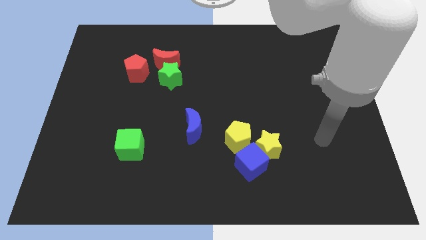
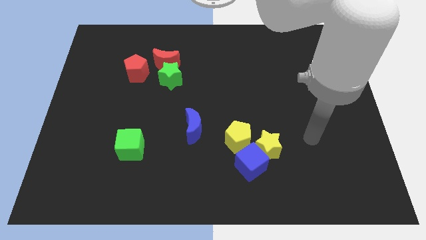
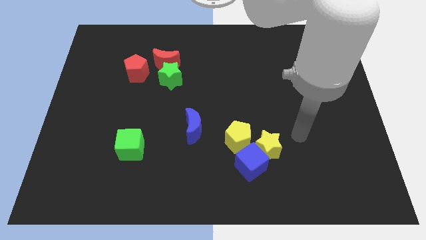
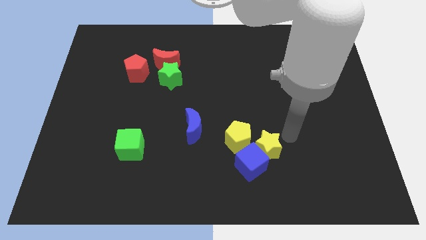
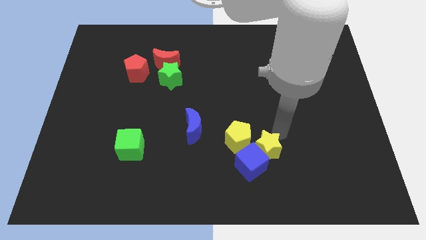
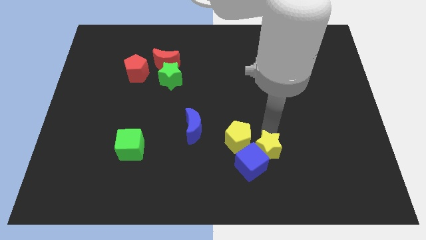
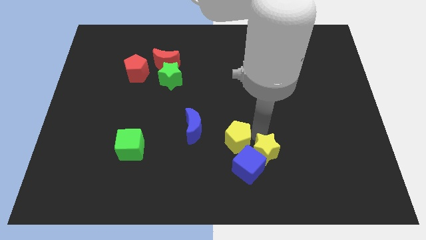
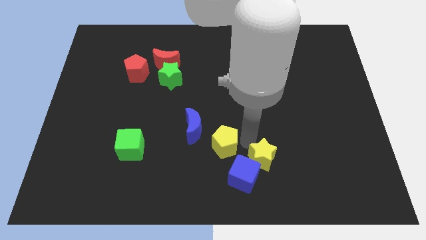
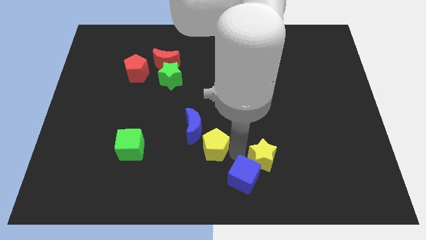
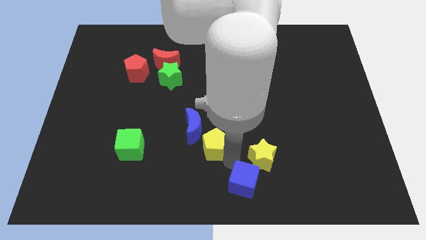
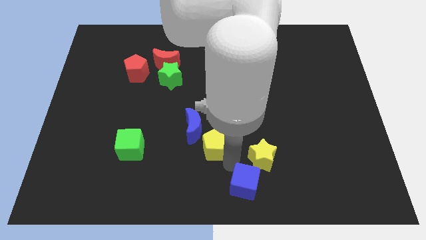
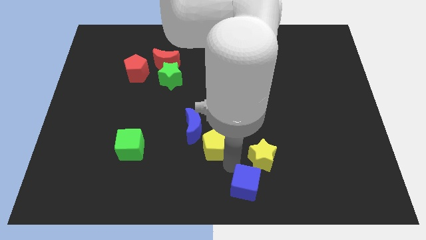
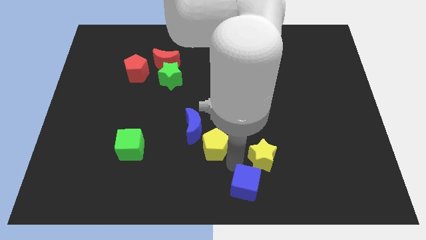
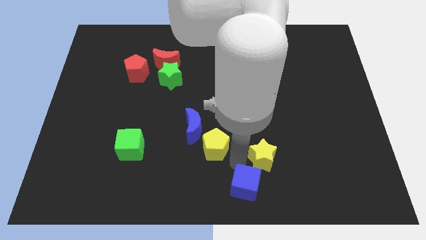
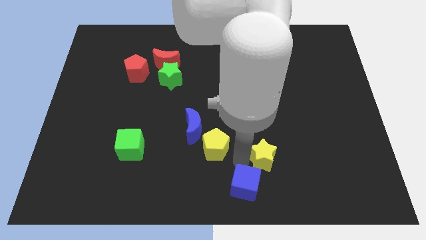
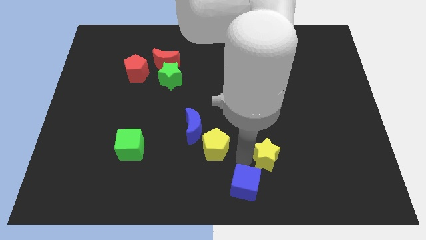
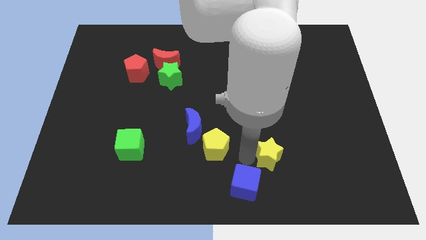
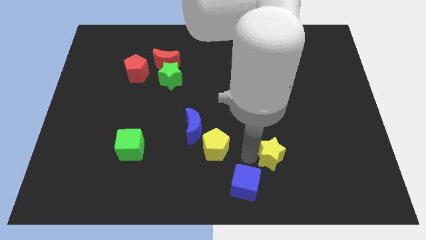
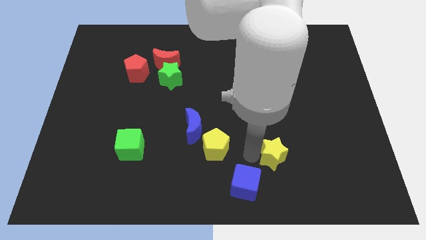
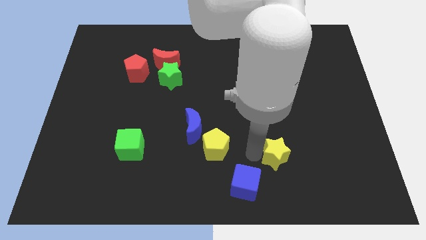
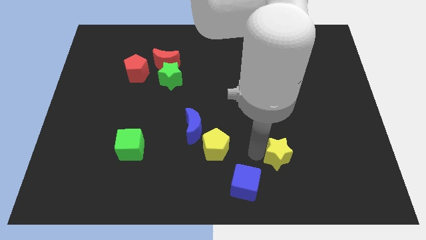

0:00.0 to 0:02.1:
separate the yellow star from the blue cube and yellow pentagon

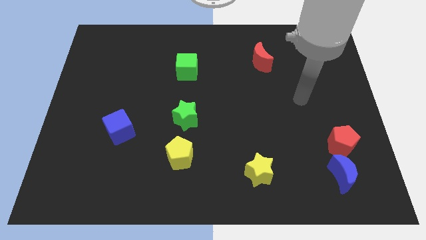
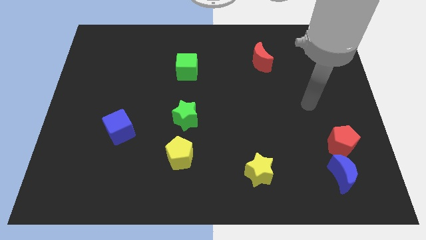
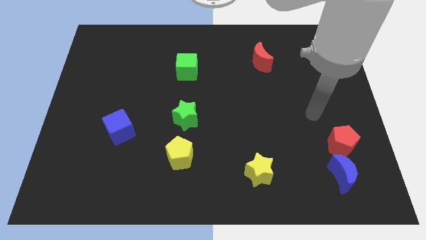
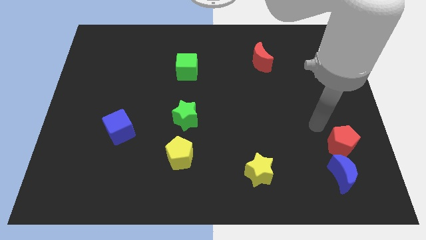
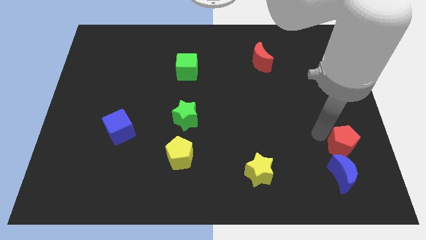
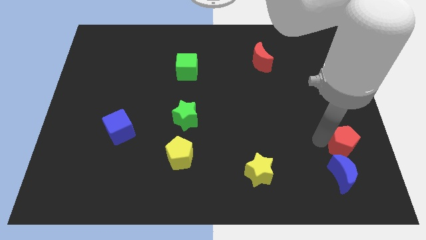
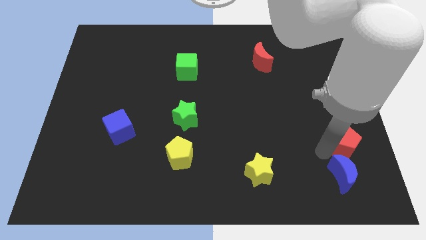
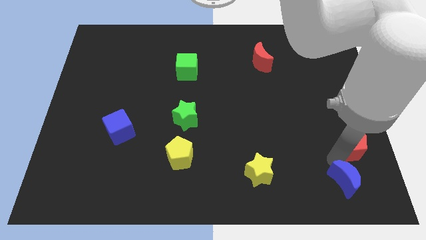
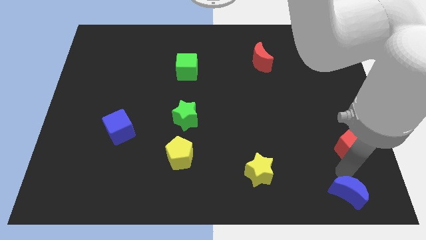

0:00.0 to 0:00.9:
separate the red pentagon from the blue moon

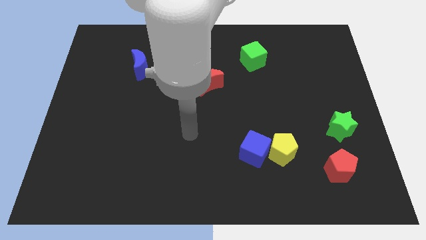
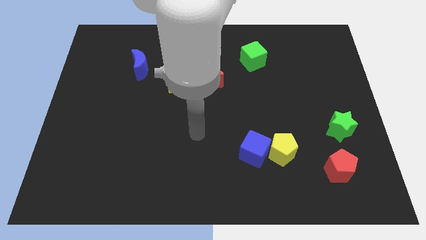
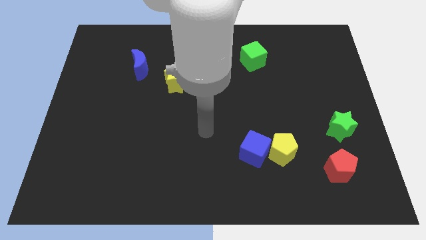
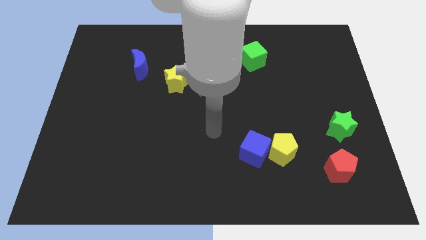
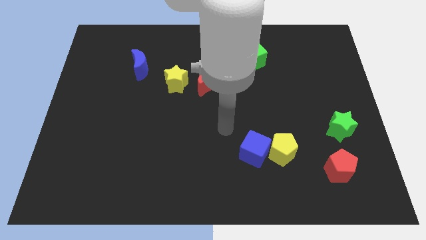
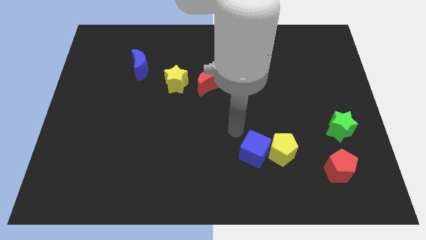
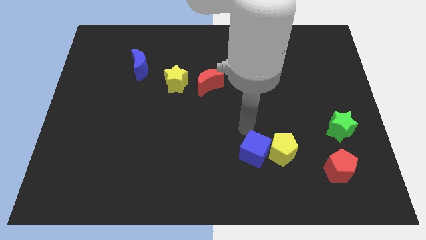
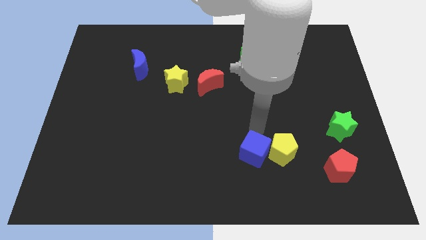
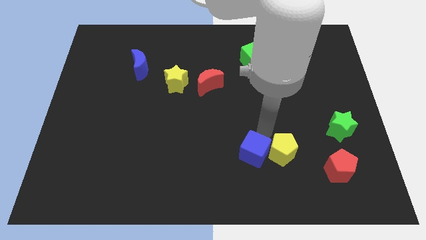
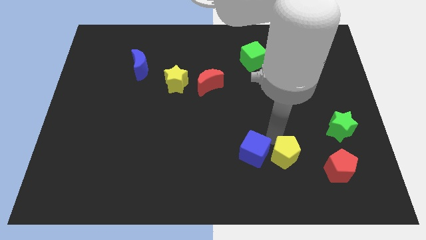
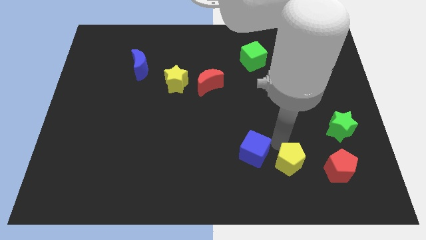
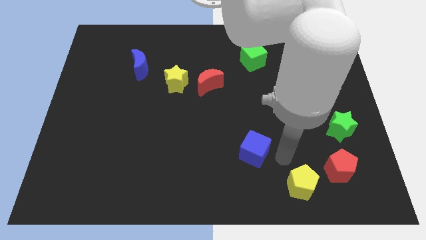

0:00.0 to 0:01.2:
move the blue cube away from the yellow pentagon

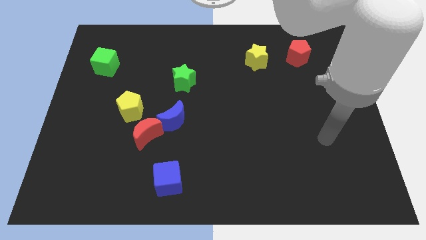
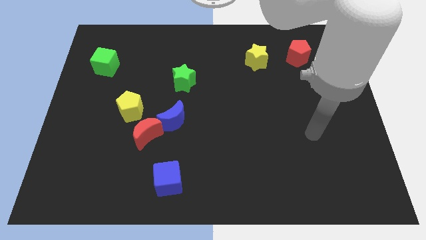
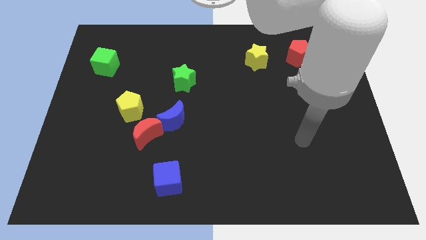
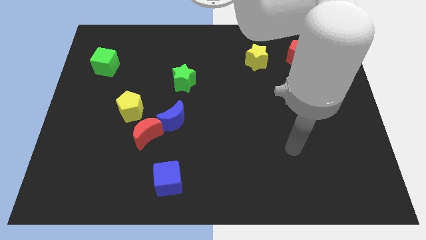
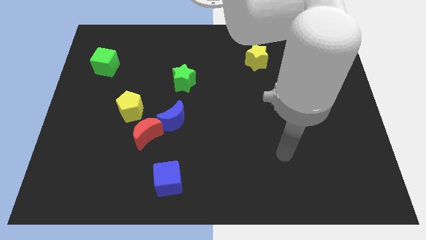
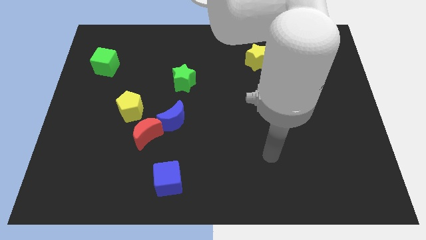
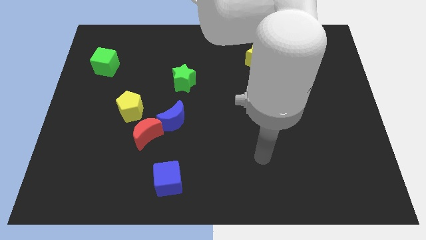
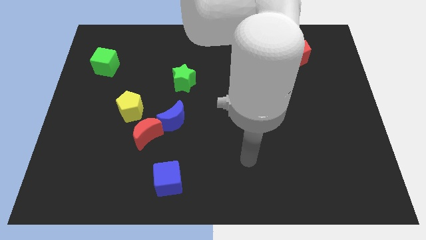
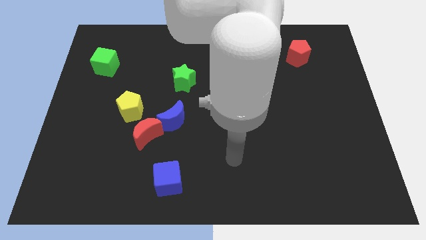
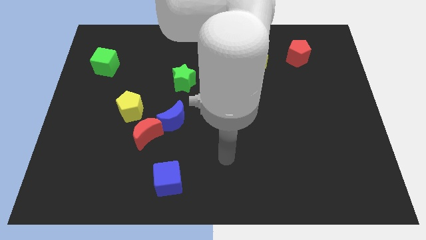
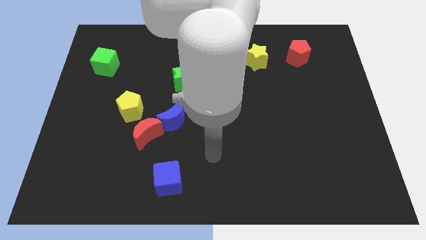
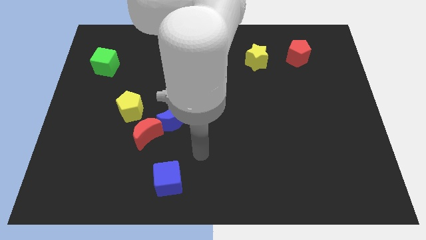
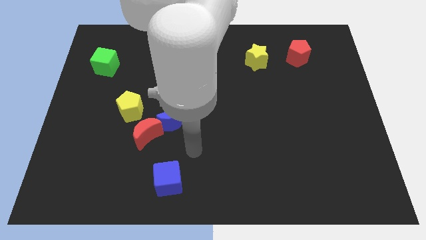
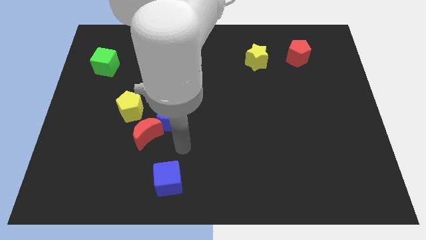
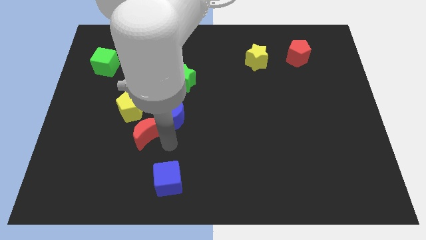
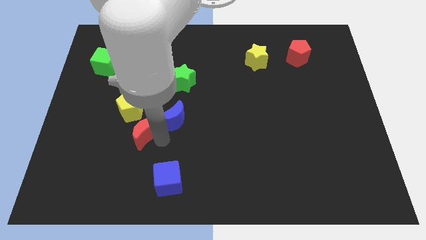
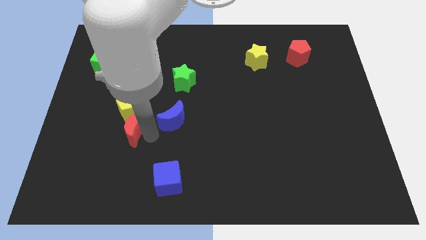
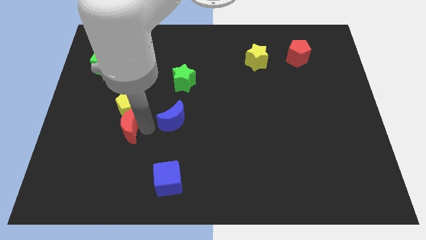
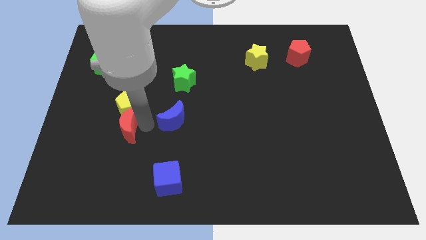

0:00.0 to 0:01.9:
pull the blue moon apart from the red moon

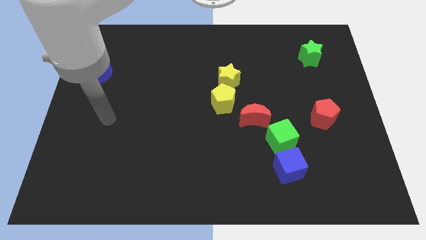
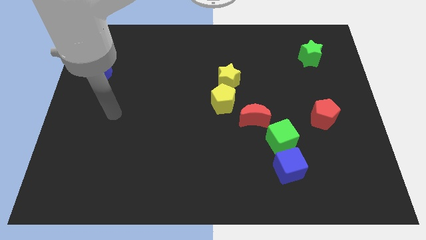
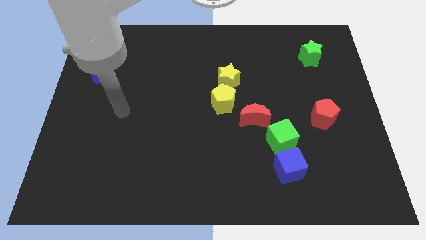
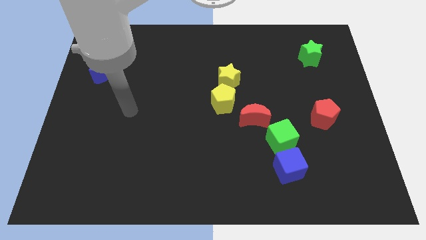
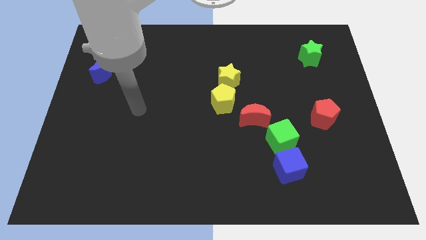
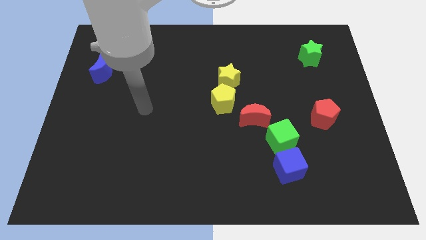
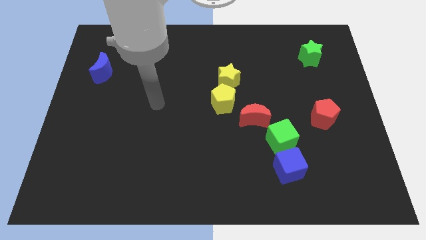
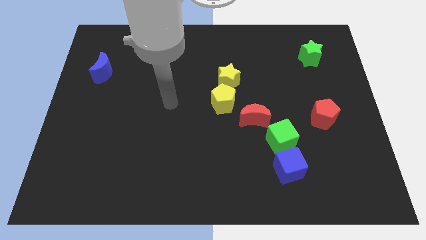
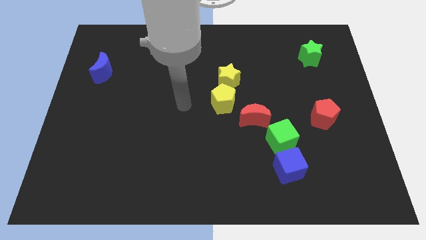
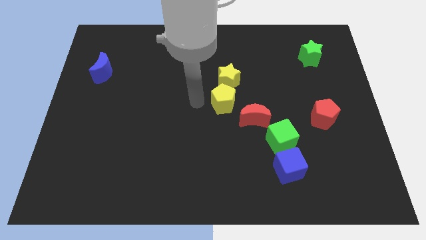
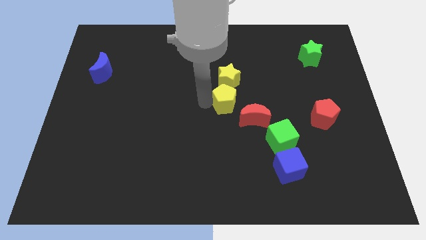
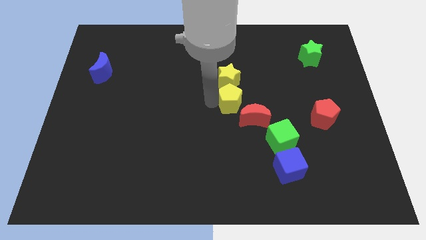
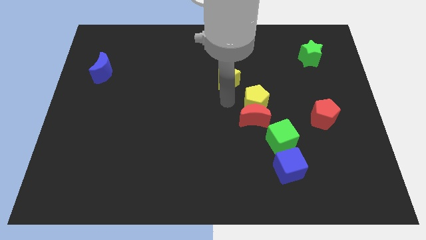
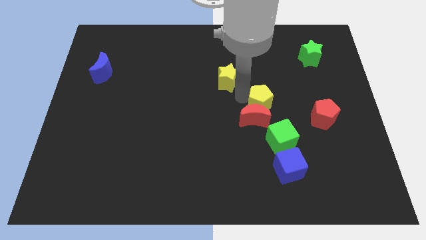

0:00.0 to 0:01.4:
move the yellow star away from the yellow pentagon

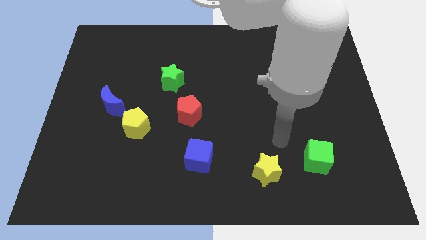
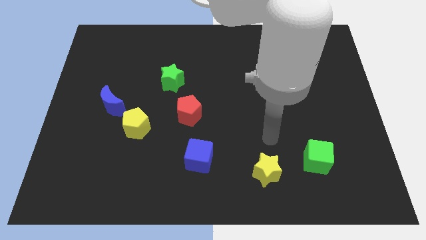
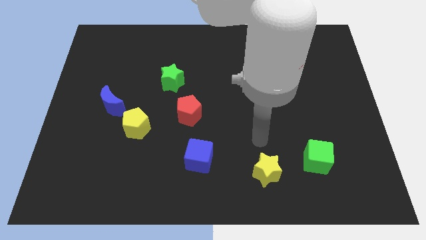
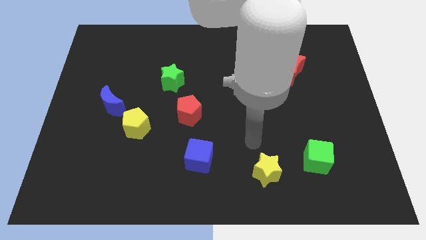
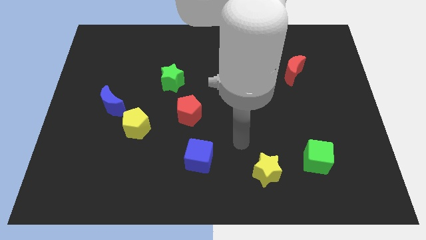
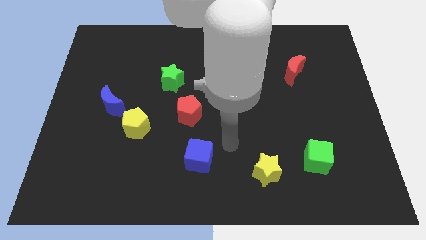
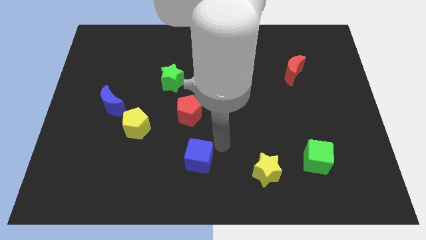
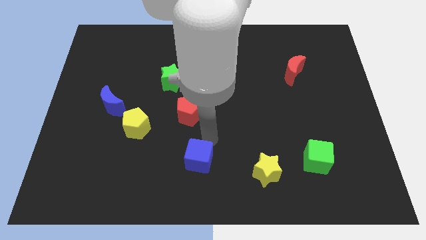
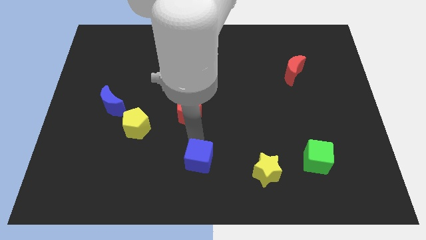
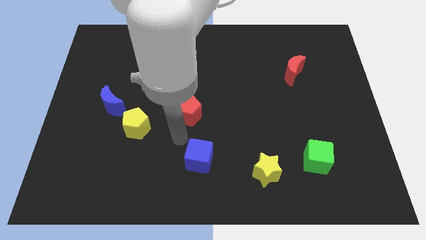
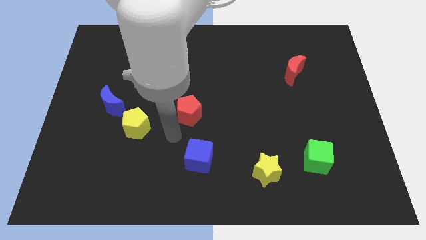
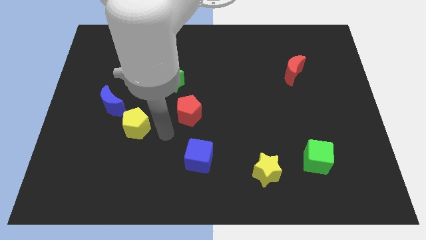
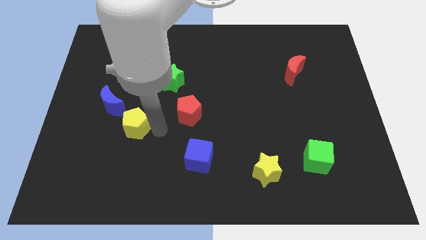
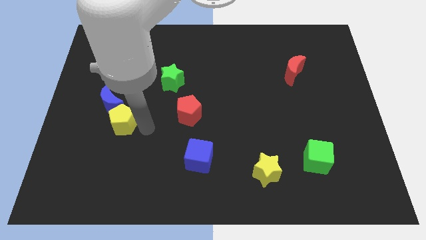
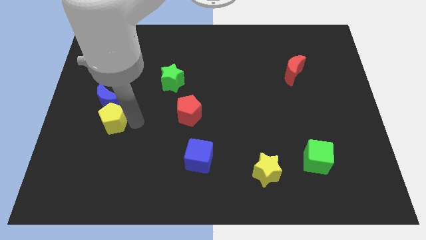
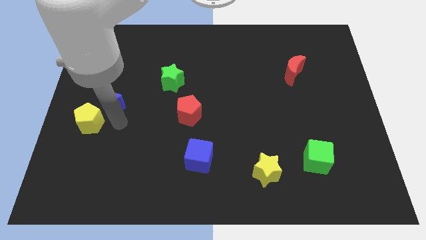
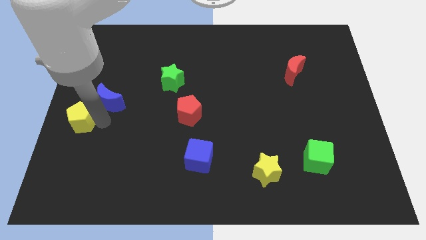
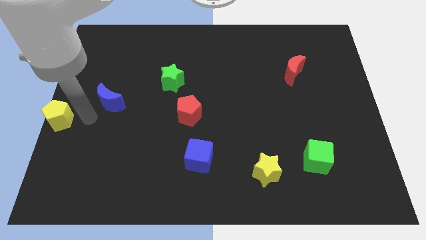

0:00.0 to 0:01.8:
pull the blue moon apart from the yellow pentagon
